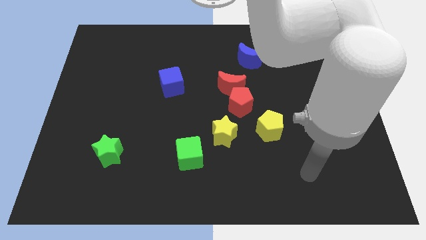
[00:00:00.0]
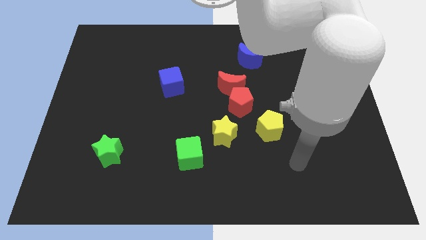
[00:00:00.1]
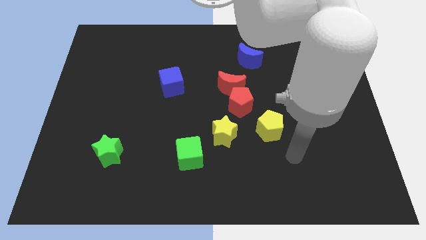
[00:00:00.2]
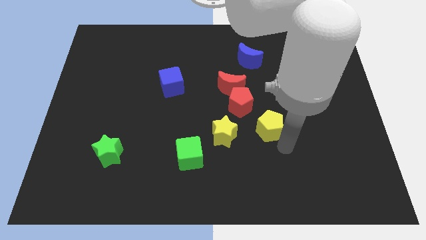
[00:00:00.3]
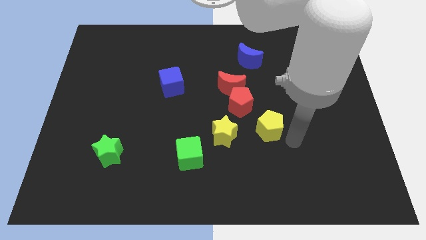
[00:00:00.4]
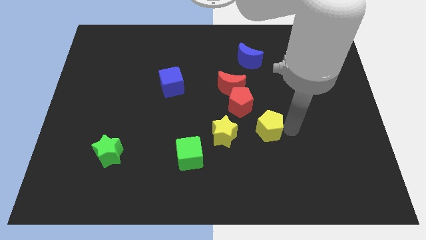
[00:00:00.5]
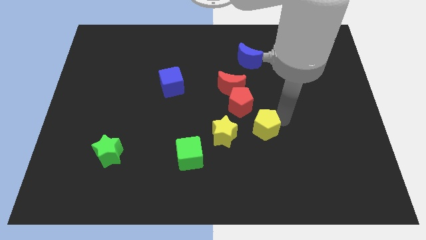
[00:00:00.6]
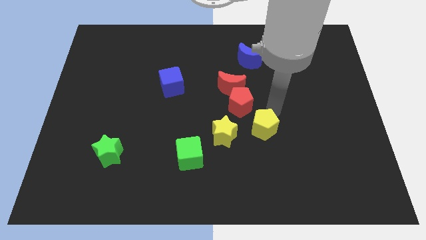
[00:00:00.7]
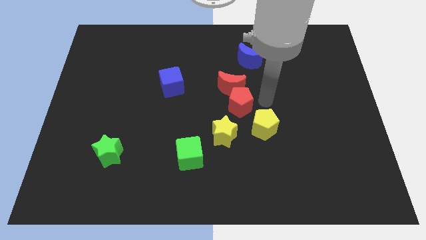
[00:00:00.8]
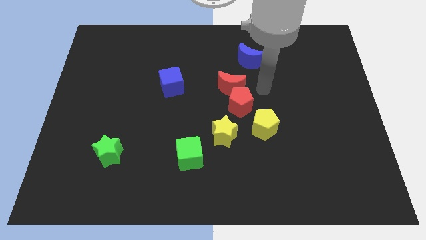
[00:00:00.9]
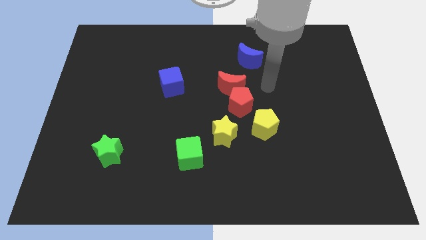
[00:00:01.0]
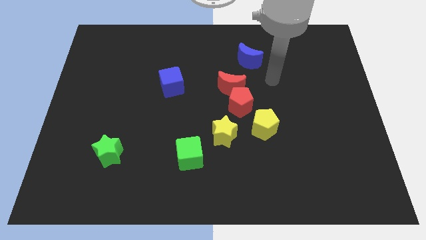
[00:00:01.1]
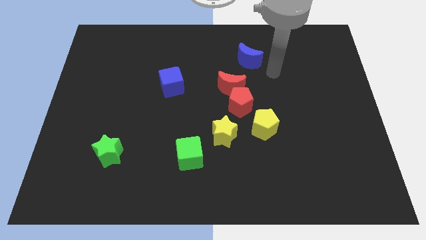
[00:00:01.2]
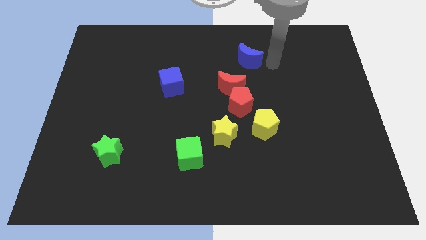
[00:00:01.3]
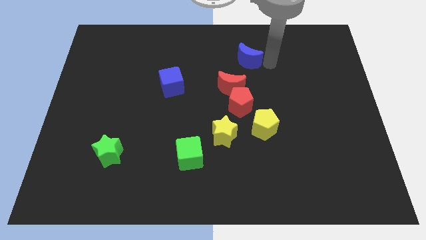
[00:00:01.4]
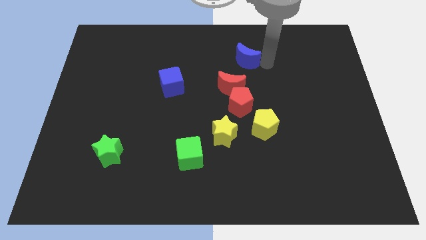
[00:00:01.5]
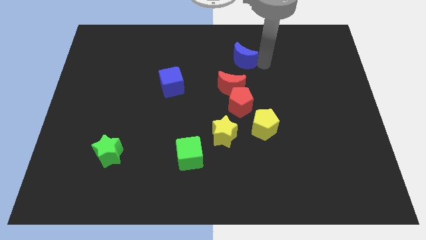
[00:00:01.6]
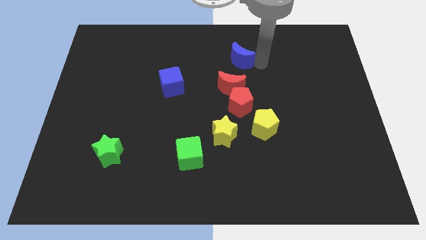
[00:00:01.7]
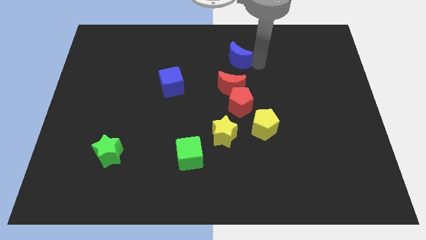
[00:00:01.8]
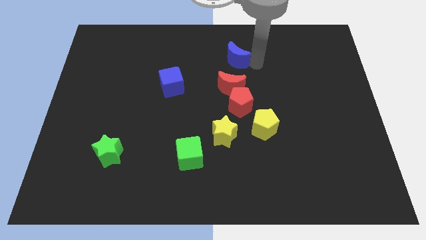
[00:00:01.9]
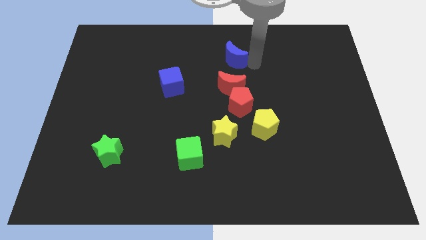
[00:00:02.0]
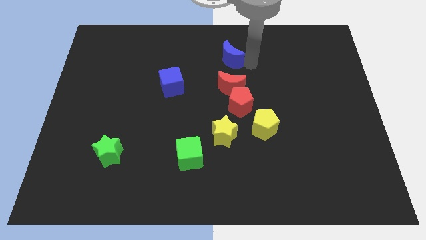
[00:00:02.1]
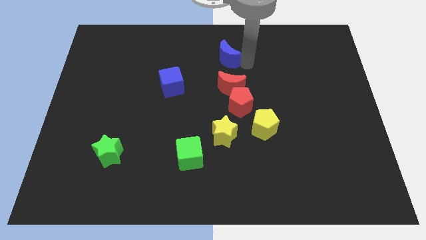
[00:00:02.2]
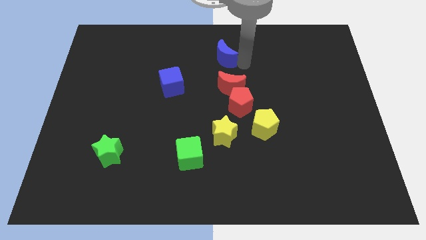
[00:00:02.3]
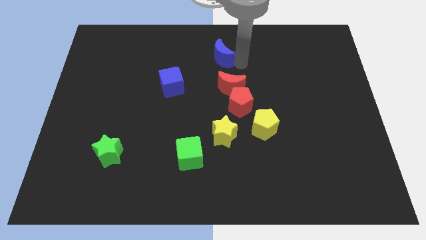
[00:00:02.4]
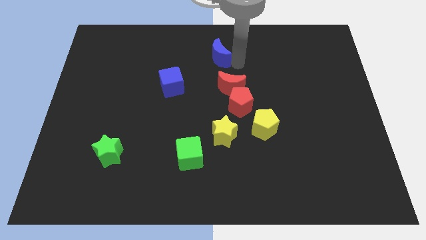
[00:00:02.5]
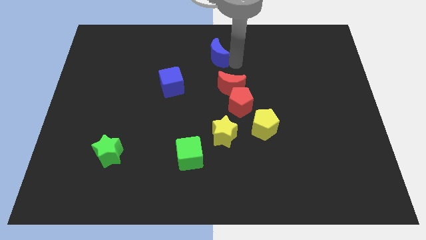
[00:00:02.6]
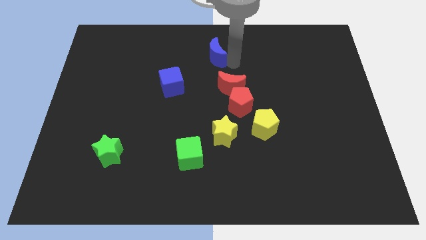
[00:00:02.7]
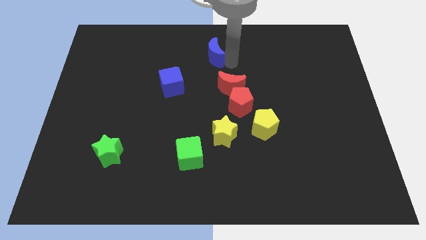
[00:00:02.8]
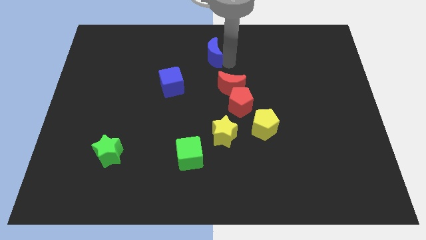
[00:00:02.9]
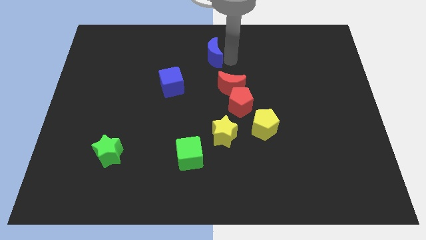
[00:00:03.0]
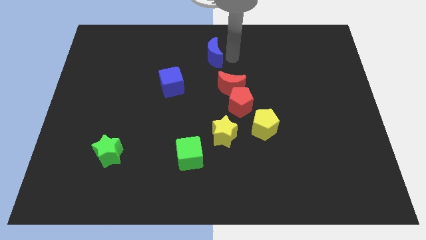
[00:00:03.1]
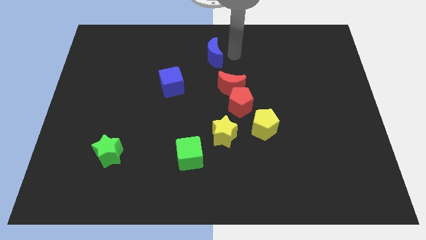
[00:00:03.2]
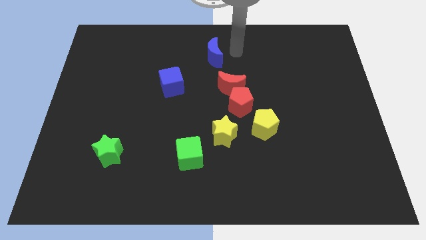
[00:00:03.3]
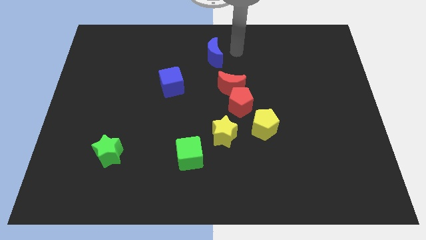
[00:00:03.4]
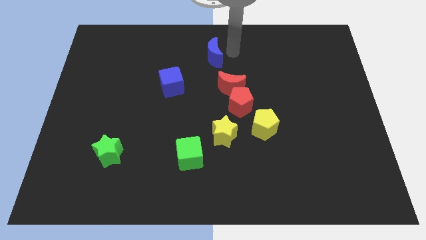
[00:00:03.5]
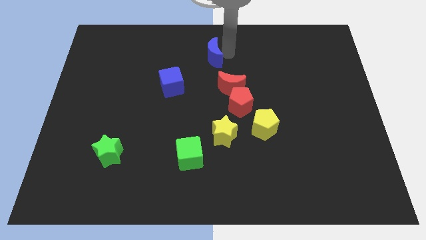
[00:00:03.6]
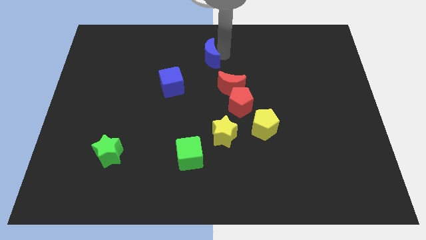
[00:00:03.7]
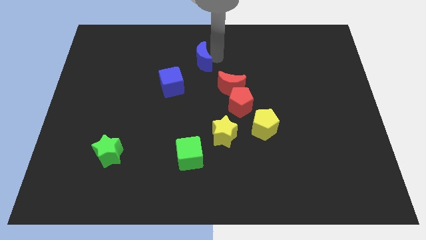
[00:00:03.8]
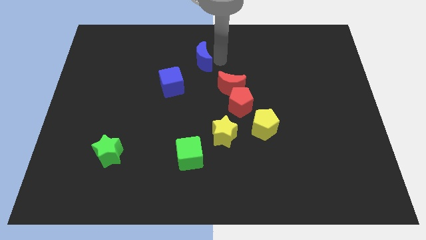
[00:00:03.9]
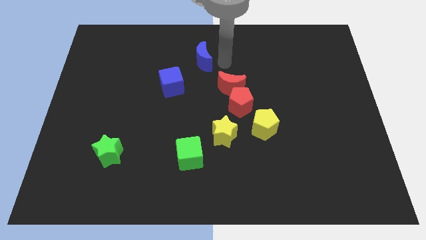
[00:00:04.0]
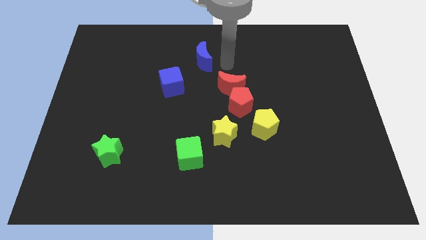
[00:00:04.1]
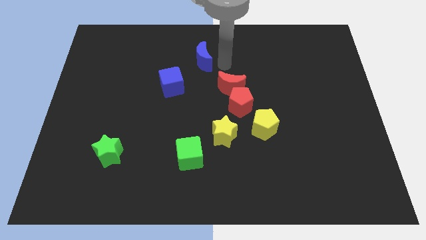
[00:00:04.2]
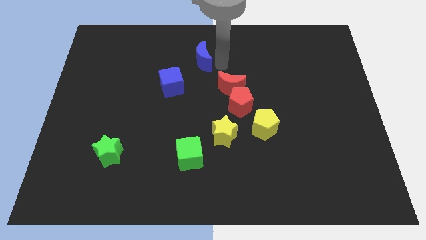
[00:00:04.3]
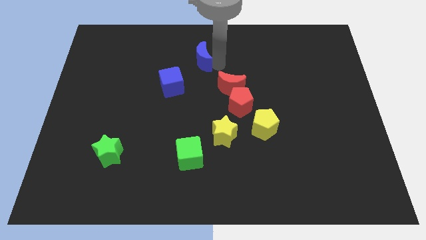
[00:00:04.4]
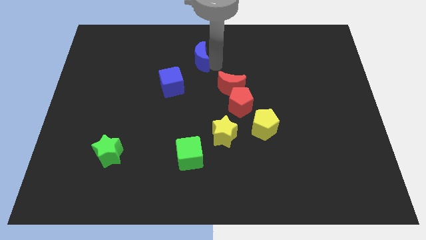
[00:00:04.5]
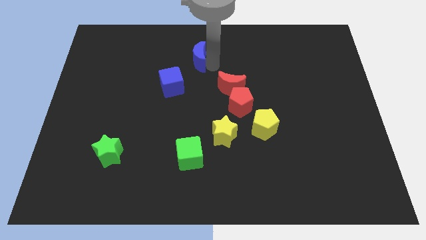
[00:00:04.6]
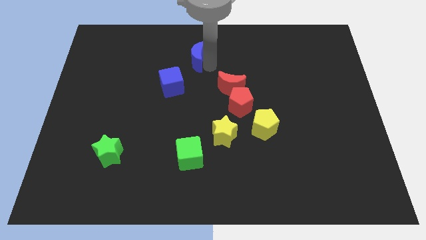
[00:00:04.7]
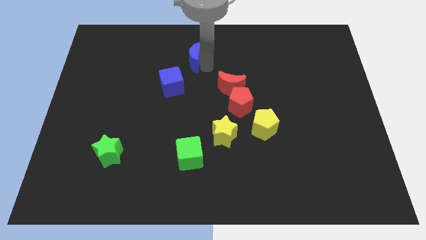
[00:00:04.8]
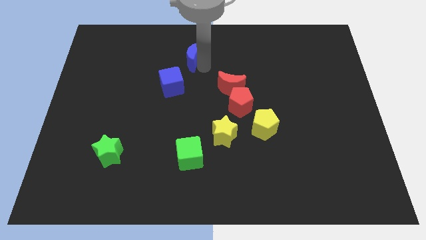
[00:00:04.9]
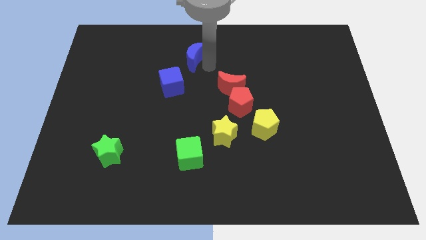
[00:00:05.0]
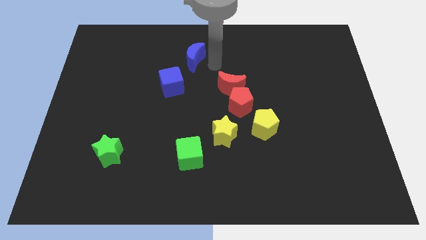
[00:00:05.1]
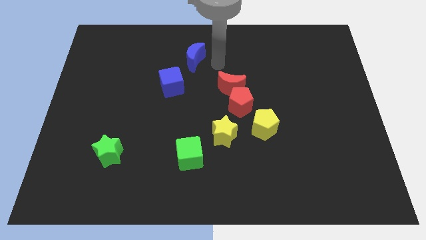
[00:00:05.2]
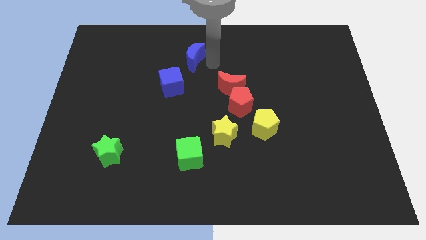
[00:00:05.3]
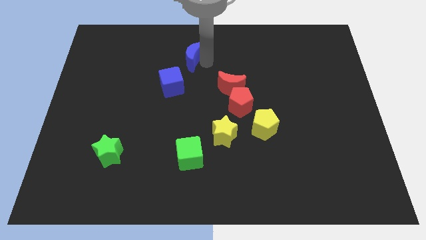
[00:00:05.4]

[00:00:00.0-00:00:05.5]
slide the blue moon to the top side of the blue cube

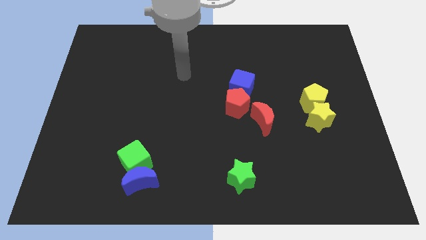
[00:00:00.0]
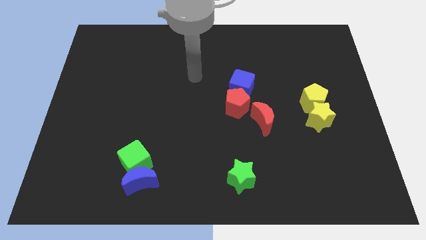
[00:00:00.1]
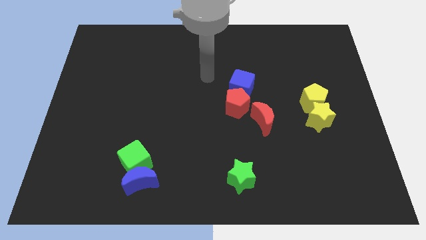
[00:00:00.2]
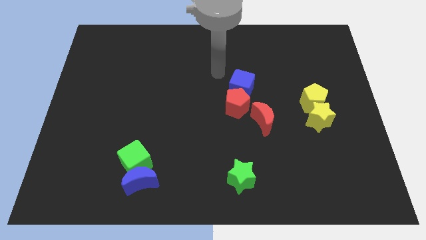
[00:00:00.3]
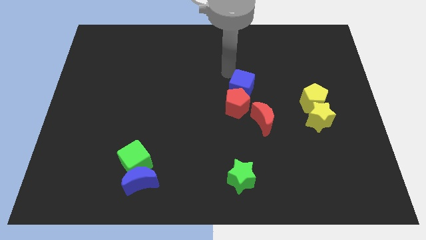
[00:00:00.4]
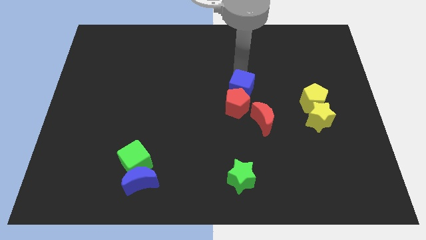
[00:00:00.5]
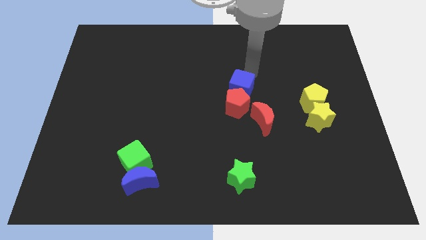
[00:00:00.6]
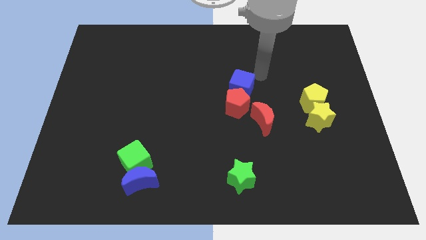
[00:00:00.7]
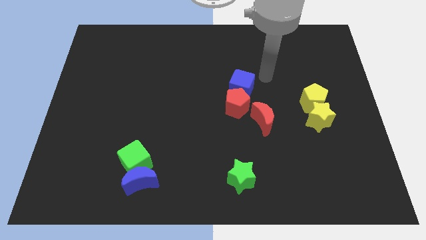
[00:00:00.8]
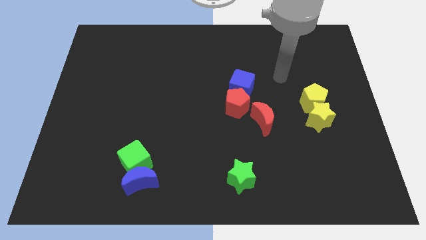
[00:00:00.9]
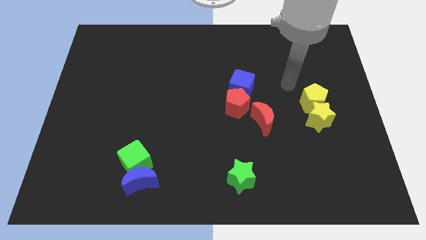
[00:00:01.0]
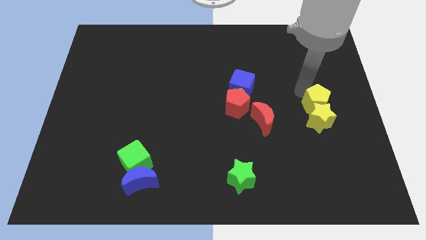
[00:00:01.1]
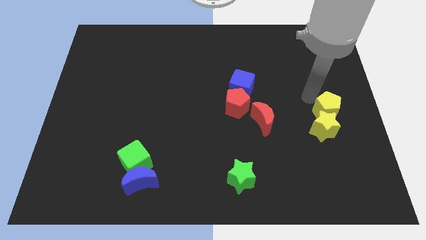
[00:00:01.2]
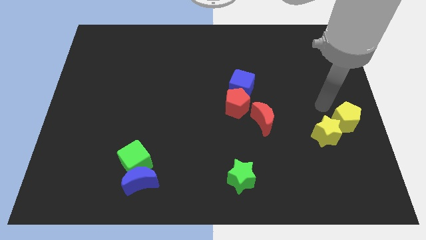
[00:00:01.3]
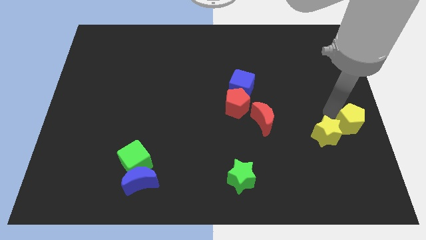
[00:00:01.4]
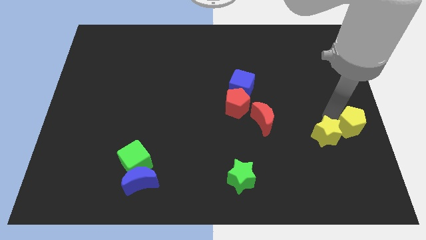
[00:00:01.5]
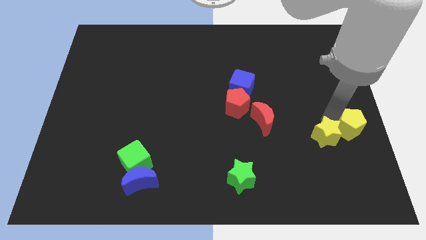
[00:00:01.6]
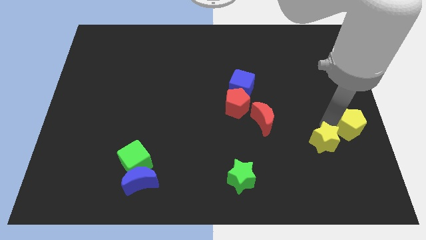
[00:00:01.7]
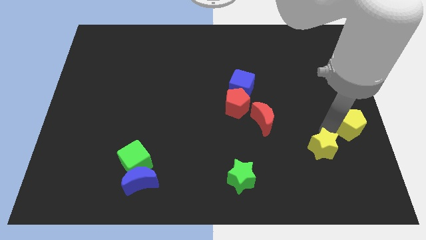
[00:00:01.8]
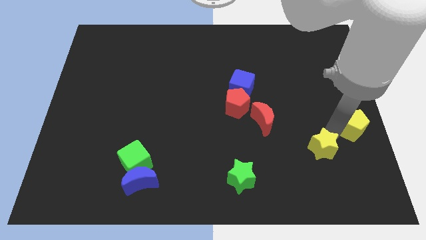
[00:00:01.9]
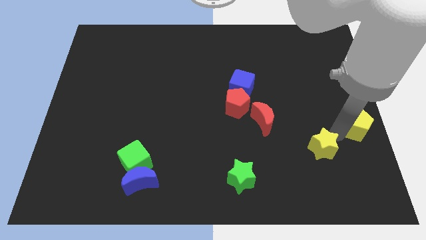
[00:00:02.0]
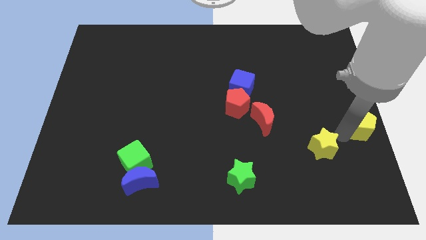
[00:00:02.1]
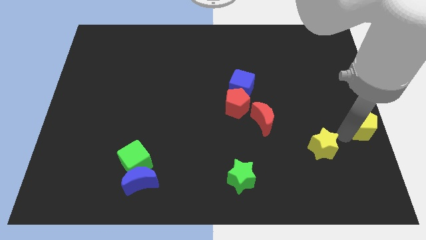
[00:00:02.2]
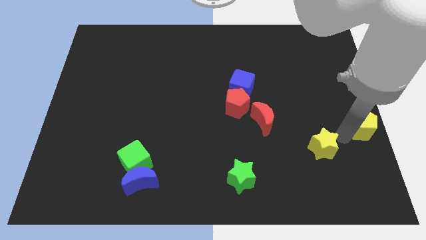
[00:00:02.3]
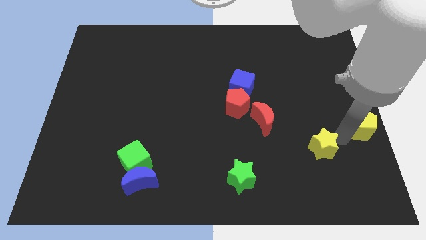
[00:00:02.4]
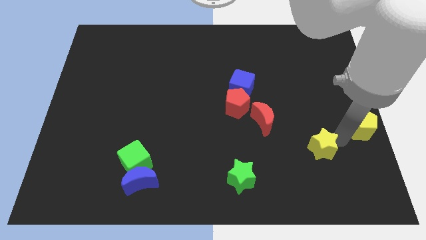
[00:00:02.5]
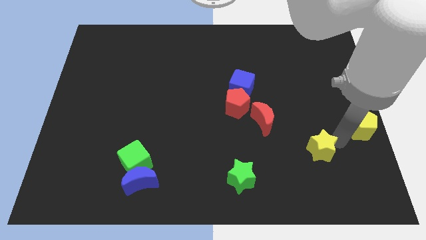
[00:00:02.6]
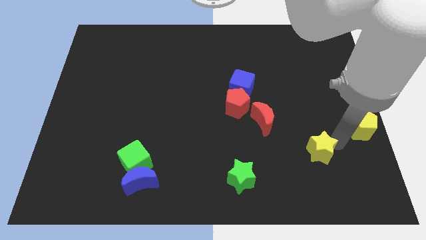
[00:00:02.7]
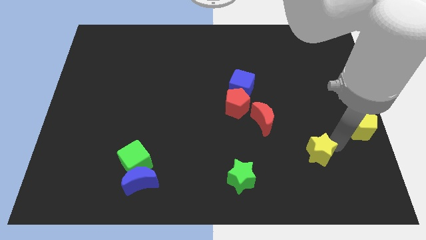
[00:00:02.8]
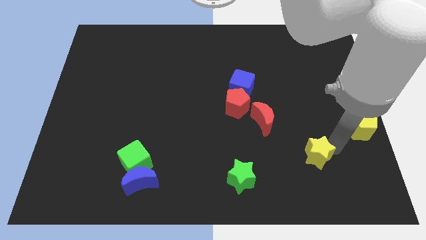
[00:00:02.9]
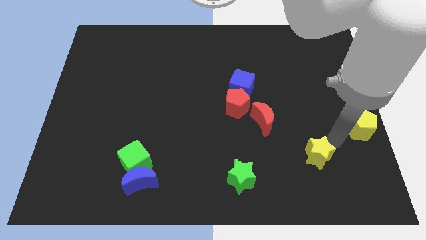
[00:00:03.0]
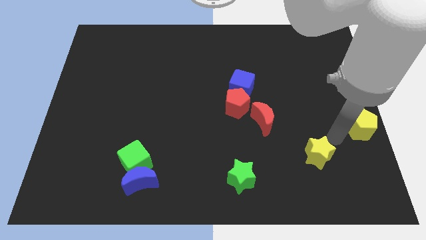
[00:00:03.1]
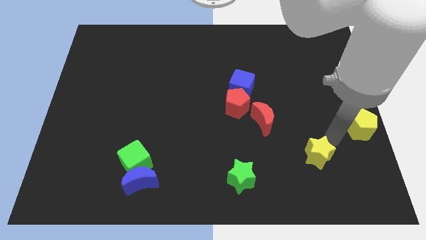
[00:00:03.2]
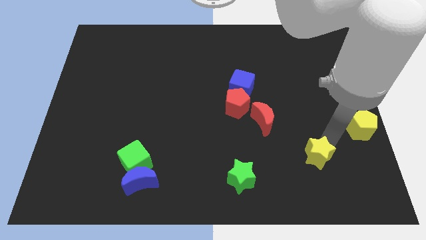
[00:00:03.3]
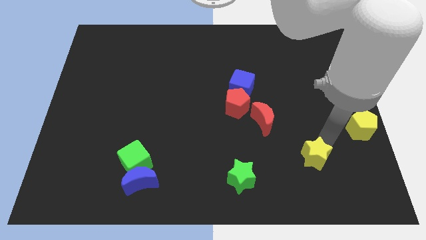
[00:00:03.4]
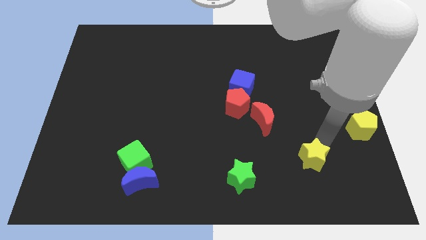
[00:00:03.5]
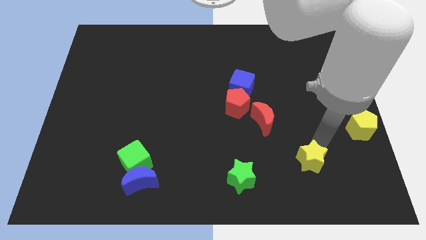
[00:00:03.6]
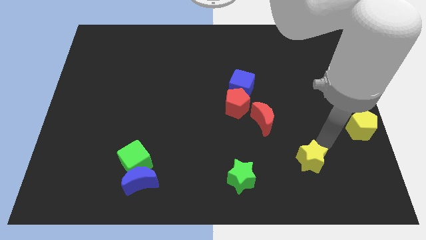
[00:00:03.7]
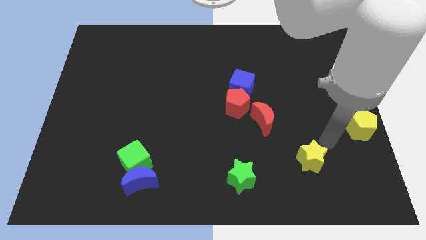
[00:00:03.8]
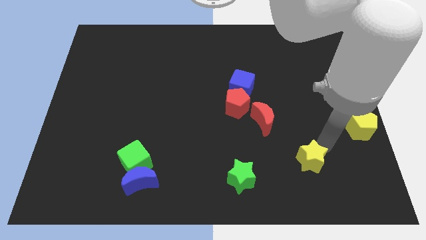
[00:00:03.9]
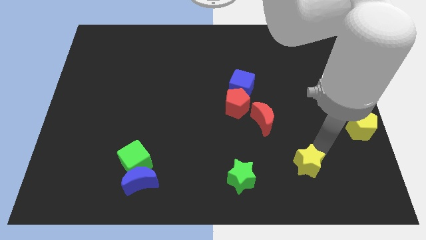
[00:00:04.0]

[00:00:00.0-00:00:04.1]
push the yellow star to the right side of the green star
